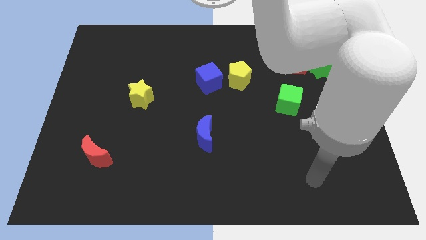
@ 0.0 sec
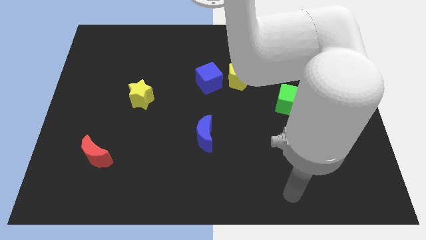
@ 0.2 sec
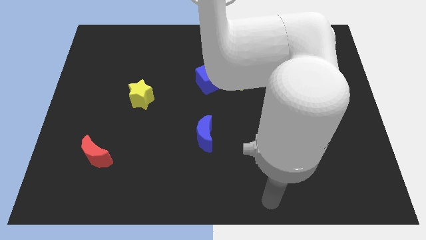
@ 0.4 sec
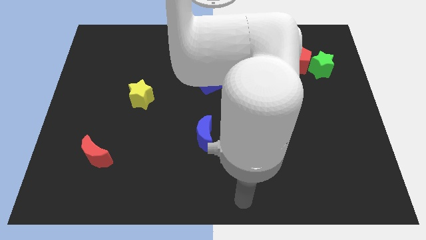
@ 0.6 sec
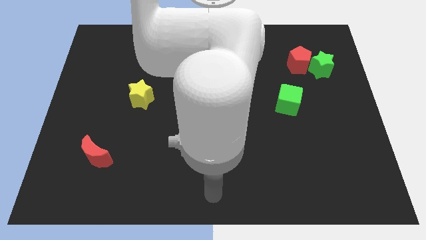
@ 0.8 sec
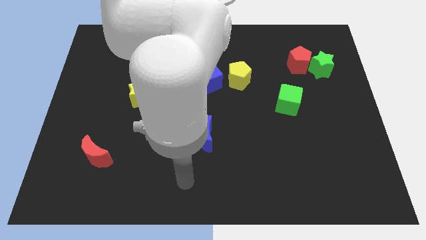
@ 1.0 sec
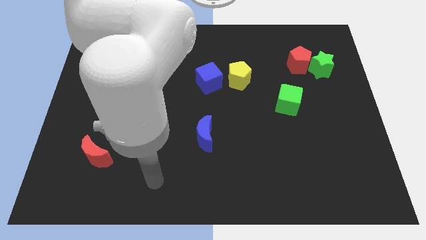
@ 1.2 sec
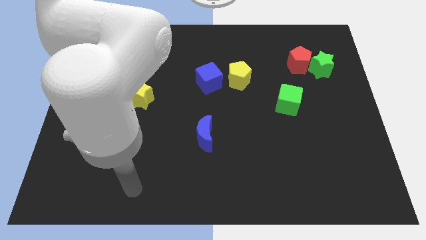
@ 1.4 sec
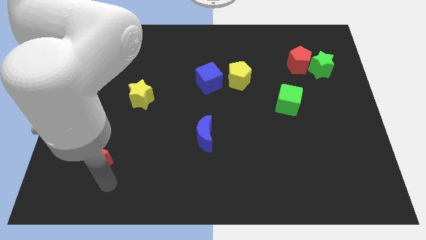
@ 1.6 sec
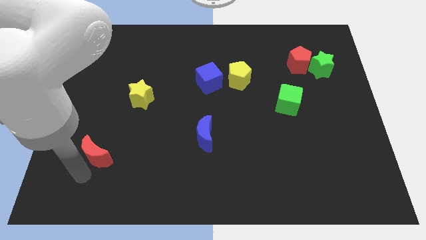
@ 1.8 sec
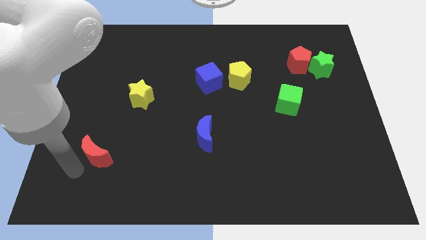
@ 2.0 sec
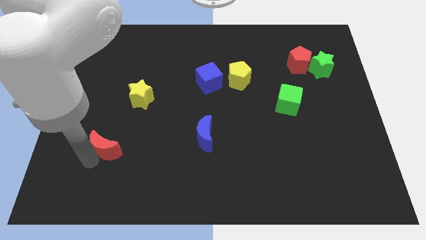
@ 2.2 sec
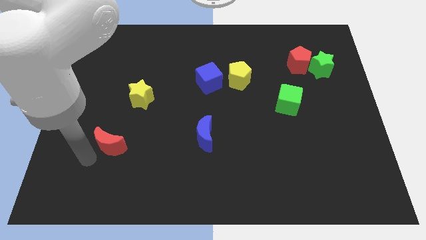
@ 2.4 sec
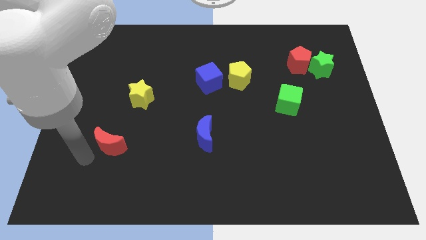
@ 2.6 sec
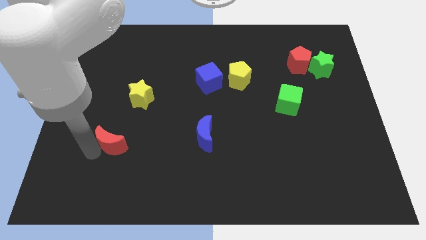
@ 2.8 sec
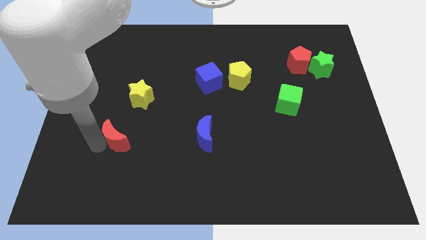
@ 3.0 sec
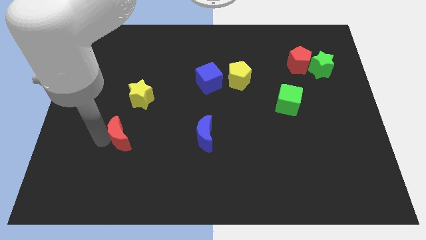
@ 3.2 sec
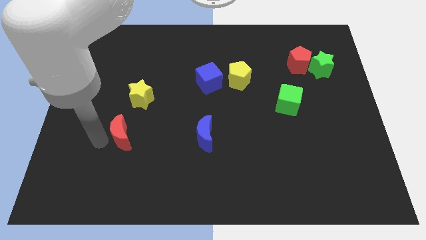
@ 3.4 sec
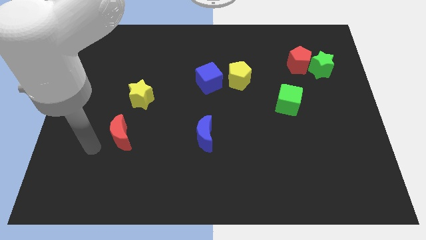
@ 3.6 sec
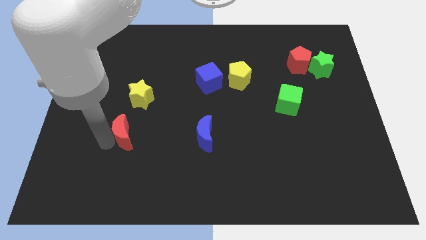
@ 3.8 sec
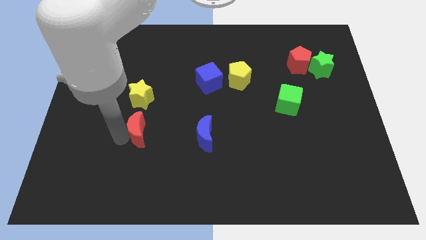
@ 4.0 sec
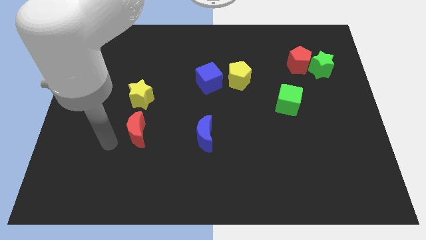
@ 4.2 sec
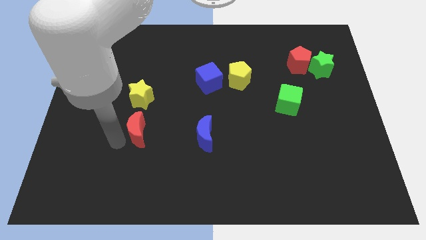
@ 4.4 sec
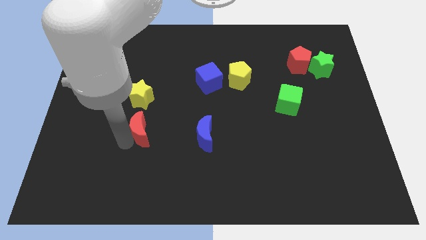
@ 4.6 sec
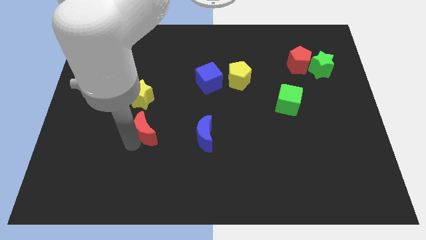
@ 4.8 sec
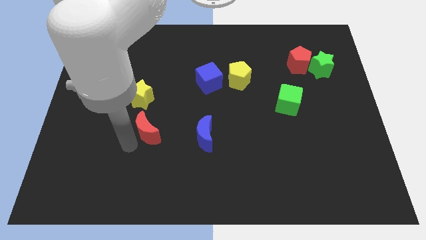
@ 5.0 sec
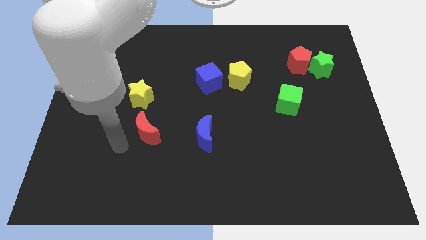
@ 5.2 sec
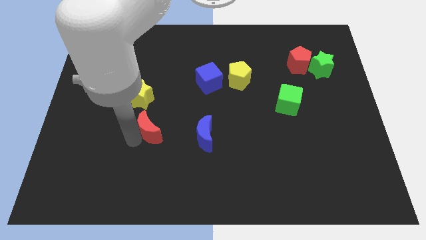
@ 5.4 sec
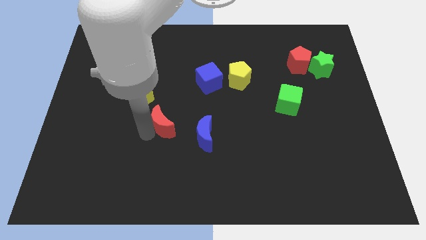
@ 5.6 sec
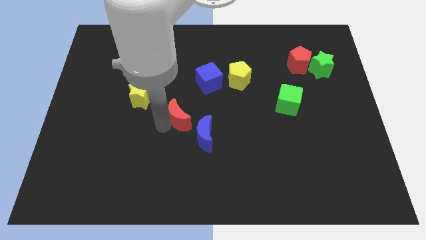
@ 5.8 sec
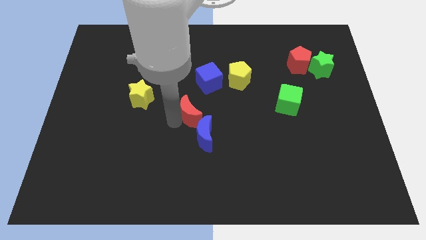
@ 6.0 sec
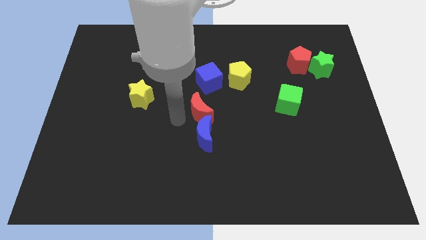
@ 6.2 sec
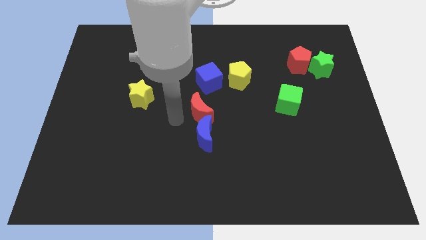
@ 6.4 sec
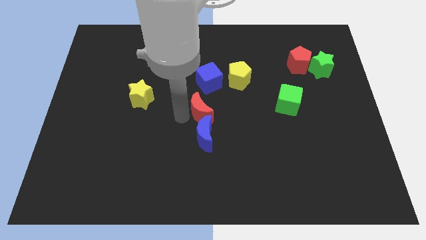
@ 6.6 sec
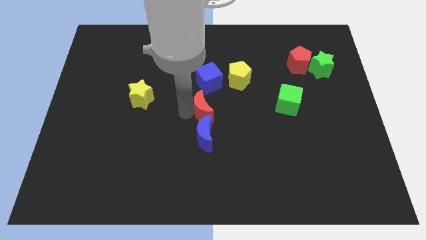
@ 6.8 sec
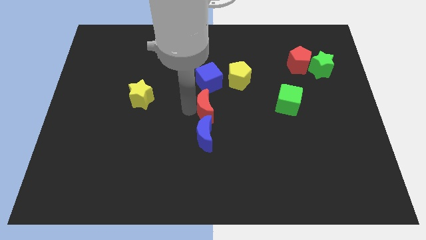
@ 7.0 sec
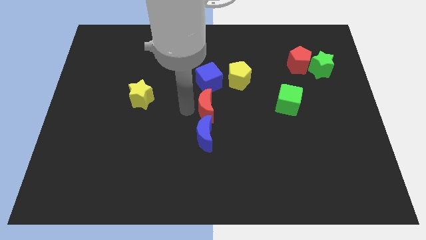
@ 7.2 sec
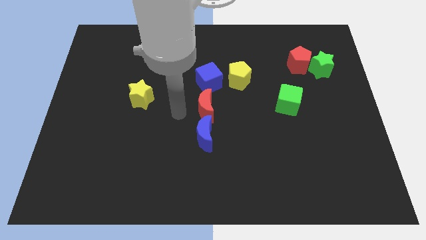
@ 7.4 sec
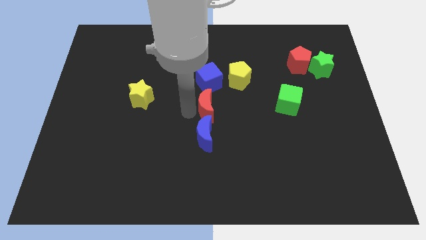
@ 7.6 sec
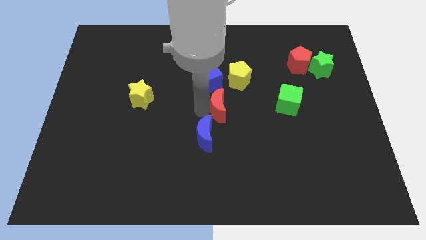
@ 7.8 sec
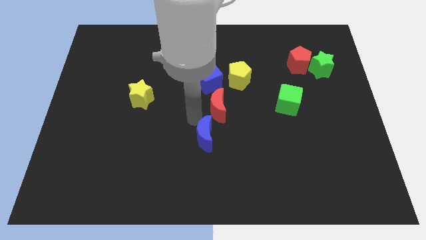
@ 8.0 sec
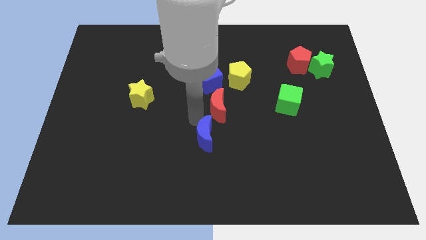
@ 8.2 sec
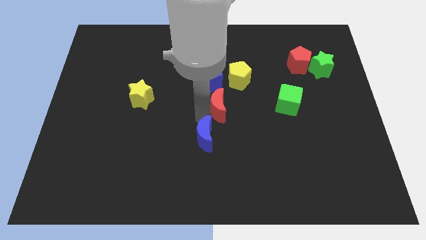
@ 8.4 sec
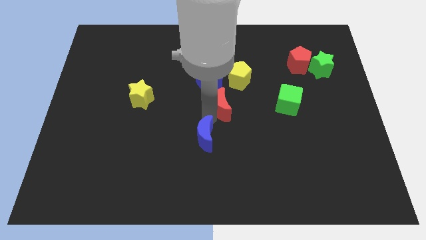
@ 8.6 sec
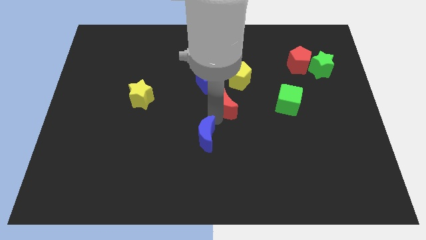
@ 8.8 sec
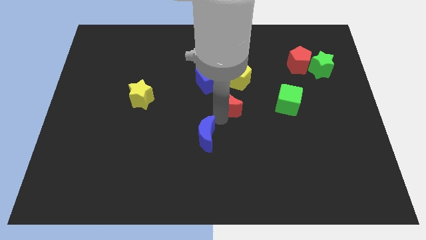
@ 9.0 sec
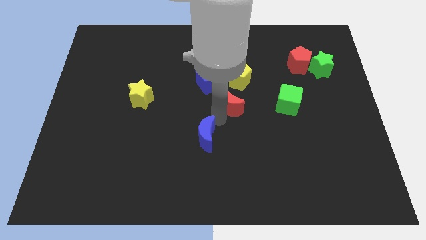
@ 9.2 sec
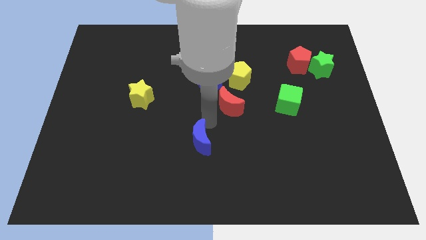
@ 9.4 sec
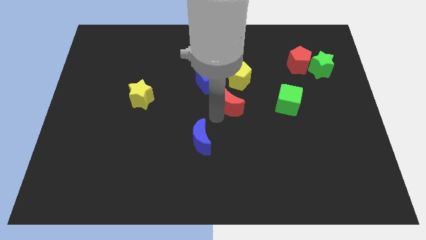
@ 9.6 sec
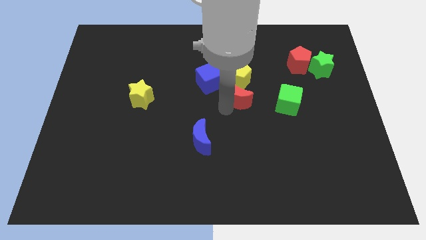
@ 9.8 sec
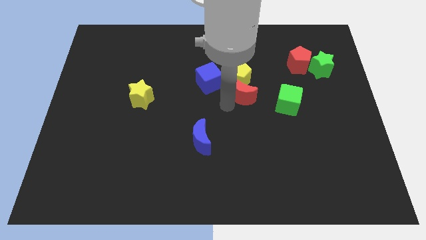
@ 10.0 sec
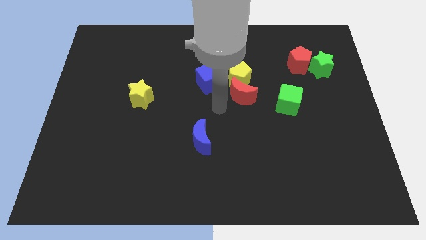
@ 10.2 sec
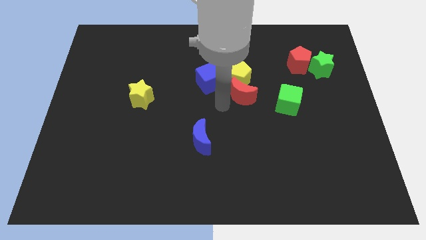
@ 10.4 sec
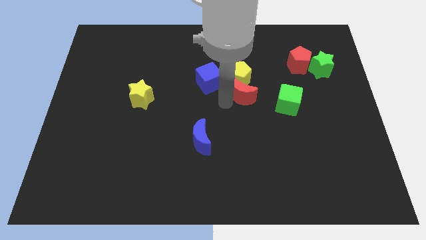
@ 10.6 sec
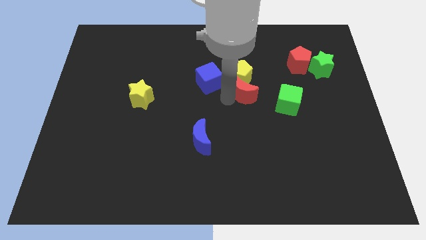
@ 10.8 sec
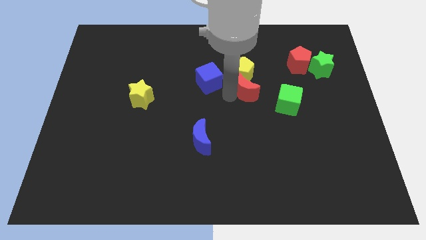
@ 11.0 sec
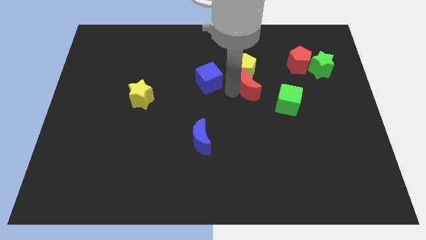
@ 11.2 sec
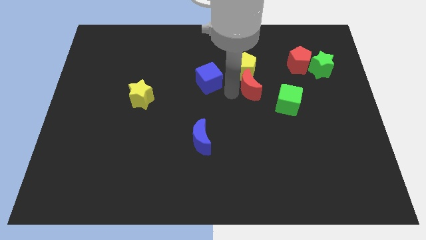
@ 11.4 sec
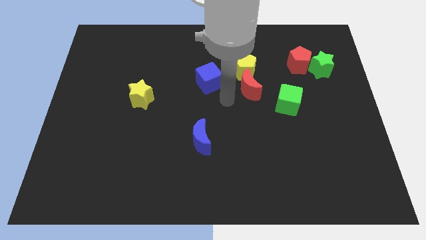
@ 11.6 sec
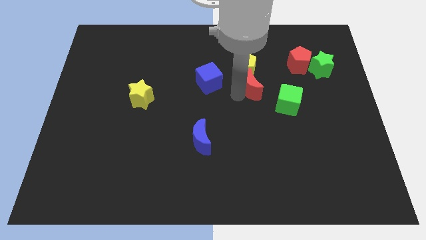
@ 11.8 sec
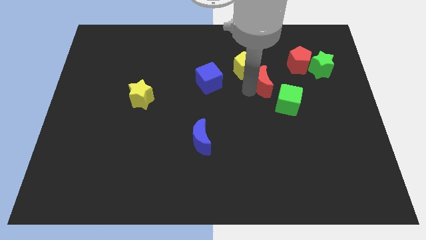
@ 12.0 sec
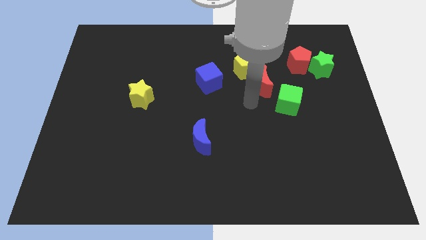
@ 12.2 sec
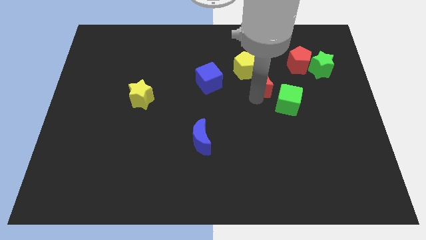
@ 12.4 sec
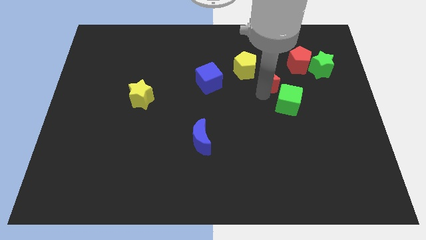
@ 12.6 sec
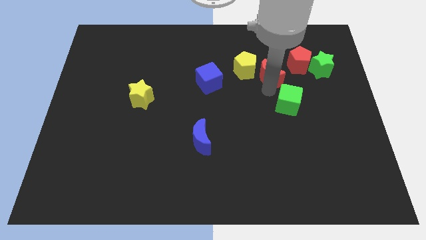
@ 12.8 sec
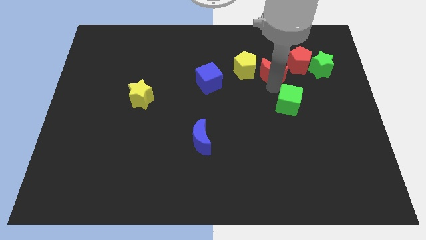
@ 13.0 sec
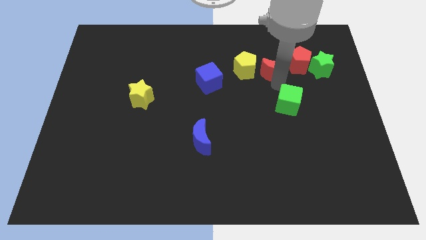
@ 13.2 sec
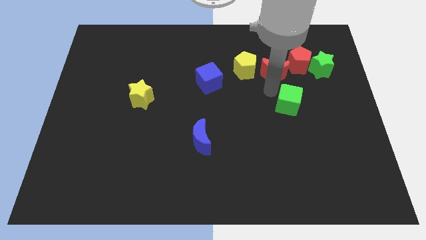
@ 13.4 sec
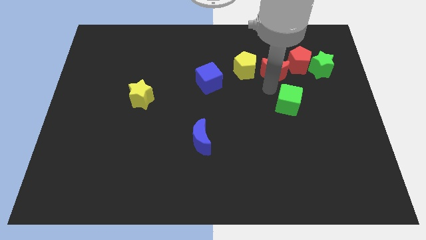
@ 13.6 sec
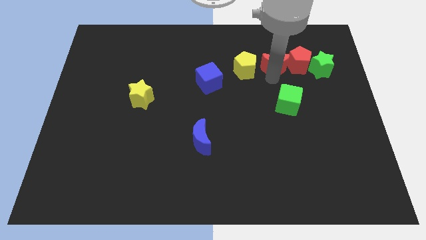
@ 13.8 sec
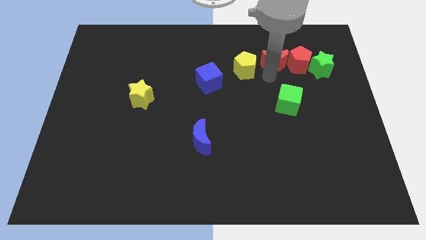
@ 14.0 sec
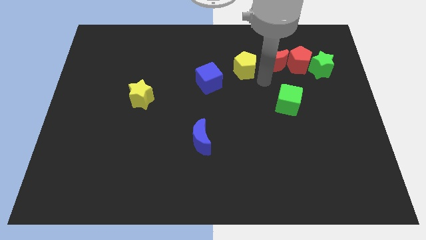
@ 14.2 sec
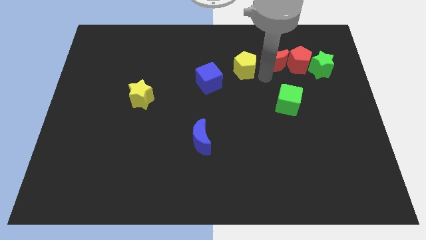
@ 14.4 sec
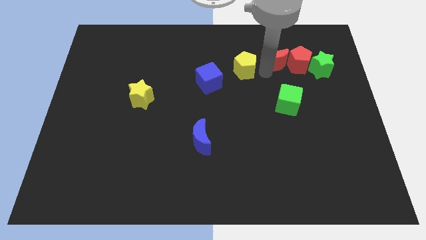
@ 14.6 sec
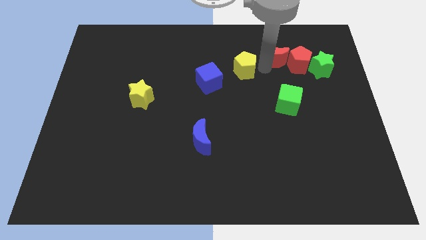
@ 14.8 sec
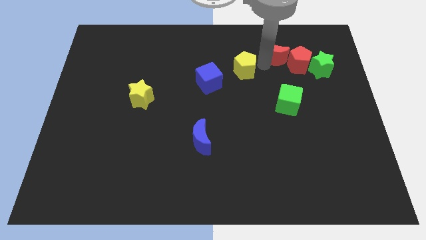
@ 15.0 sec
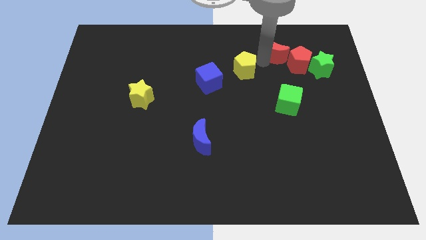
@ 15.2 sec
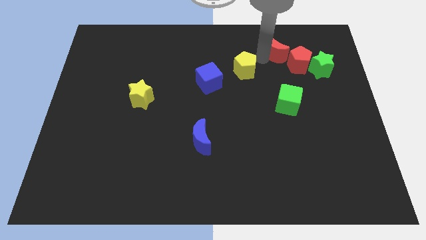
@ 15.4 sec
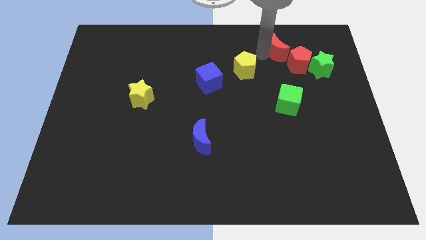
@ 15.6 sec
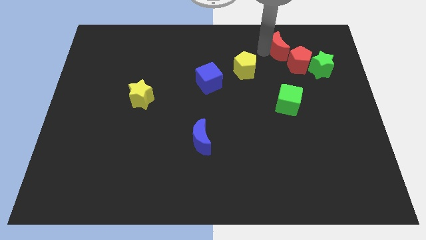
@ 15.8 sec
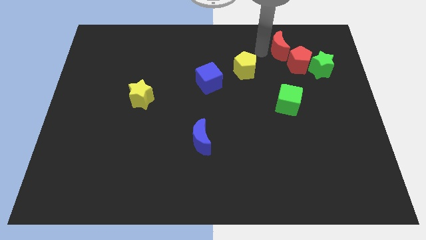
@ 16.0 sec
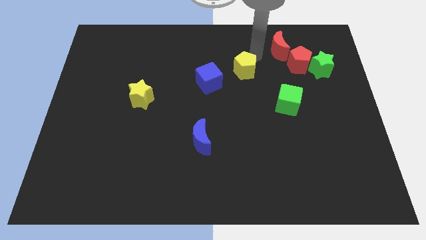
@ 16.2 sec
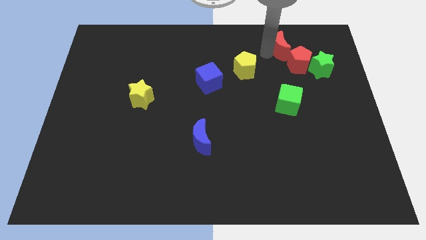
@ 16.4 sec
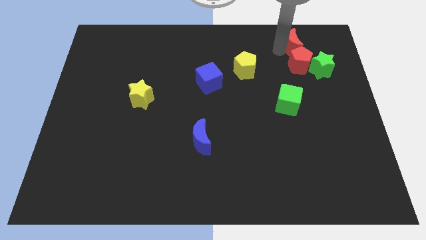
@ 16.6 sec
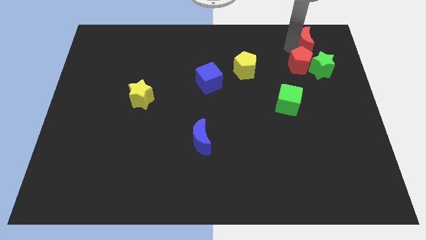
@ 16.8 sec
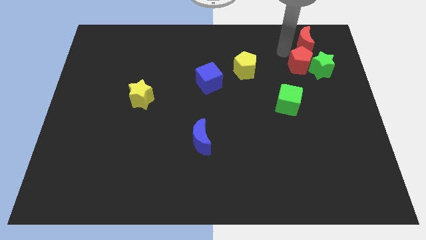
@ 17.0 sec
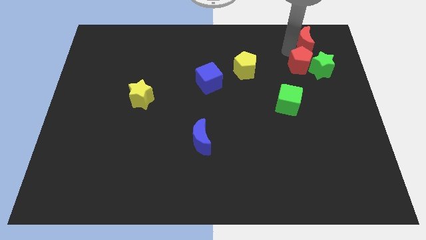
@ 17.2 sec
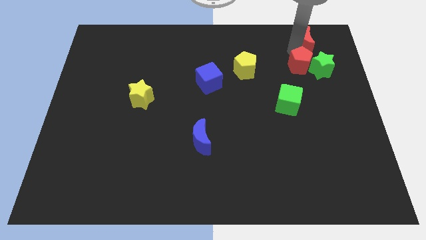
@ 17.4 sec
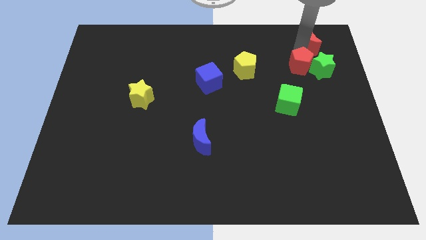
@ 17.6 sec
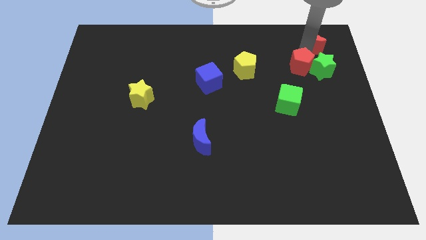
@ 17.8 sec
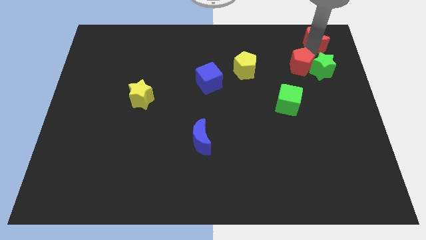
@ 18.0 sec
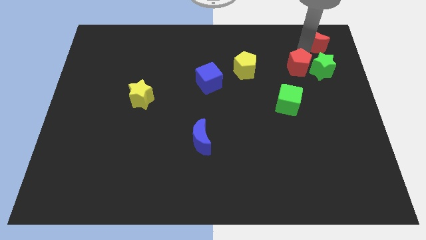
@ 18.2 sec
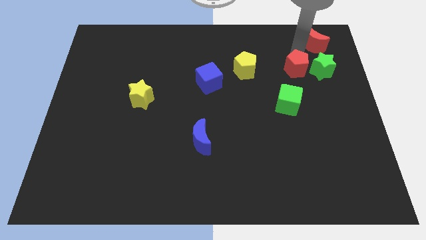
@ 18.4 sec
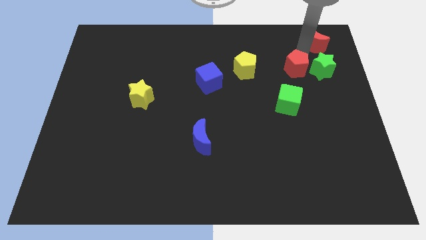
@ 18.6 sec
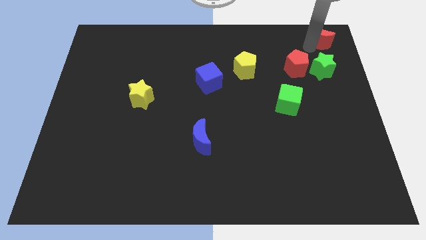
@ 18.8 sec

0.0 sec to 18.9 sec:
move the red moon to the top right of the board
